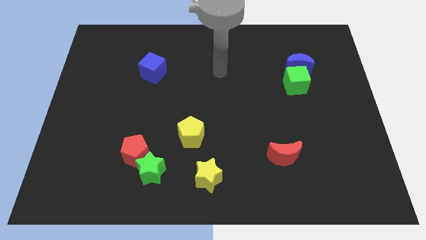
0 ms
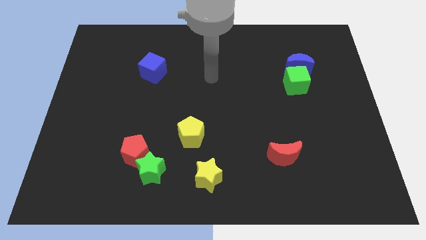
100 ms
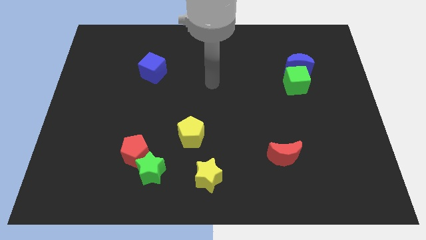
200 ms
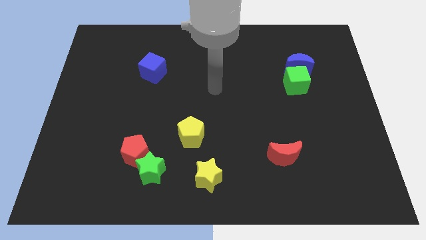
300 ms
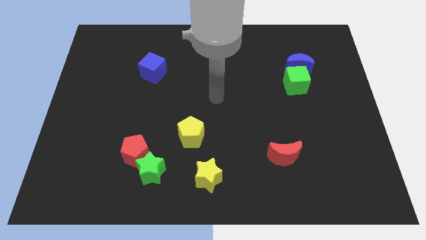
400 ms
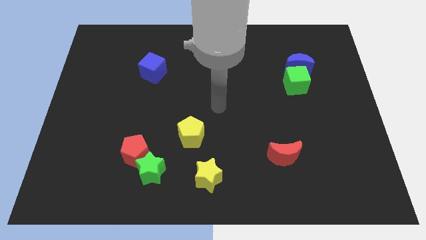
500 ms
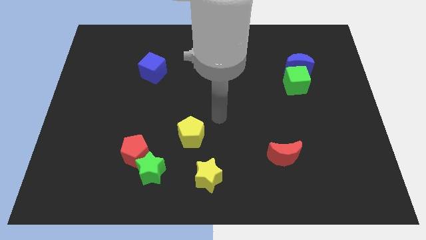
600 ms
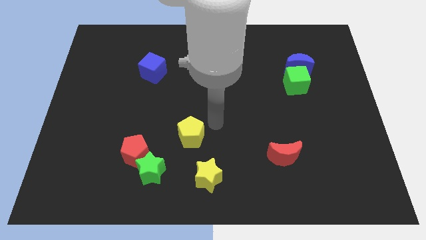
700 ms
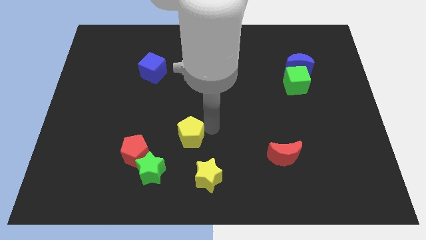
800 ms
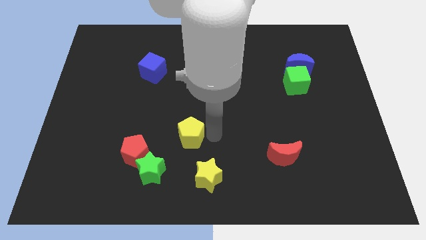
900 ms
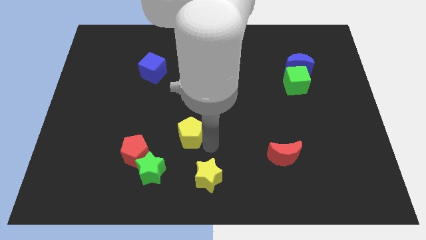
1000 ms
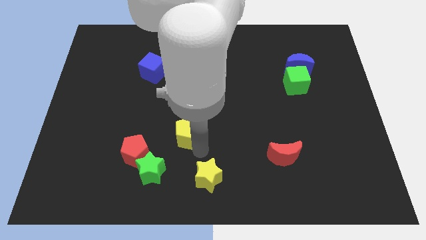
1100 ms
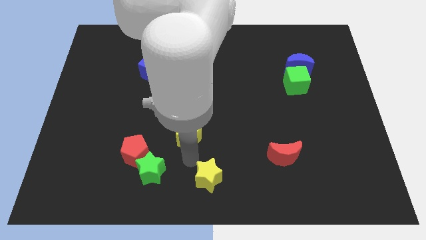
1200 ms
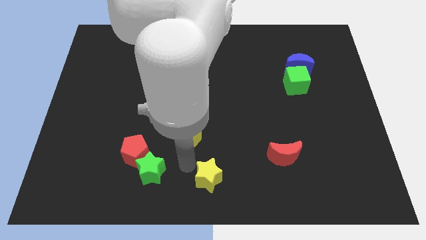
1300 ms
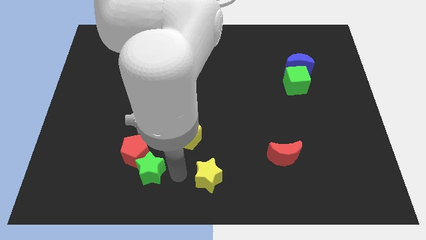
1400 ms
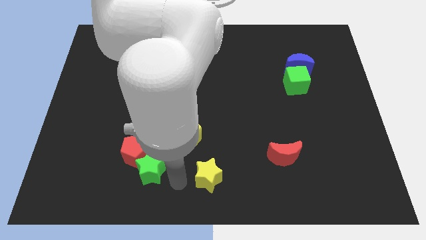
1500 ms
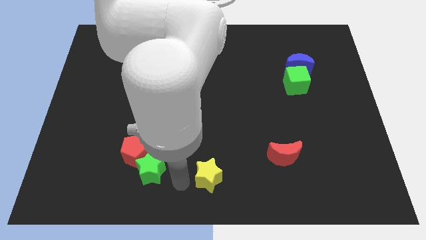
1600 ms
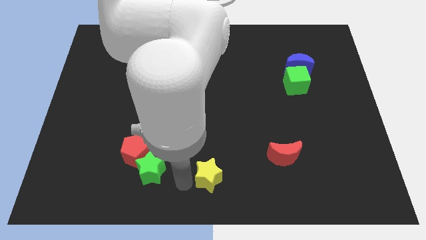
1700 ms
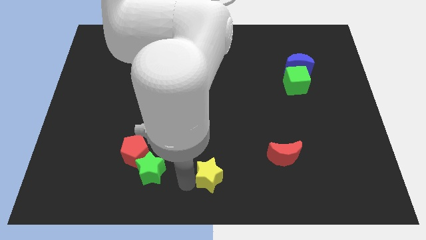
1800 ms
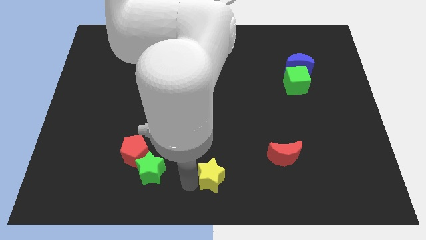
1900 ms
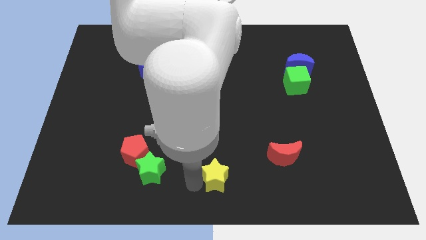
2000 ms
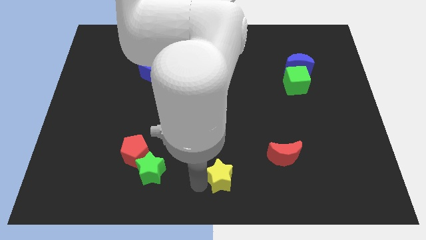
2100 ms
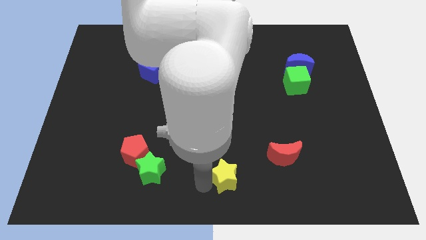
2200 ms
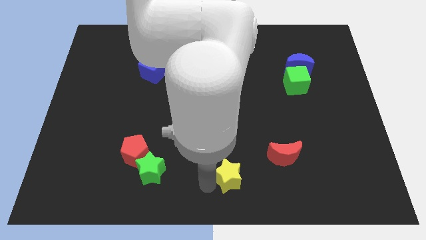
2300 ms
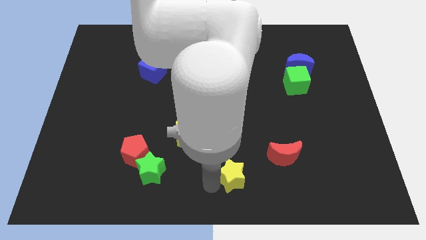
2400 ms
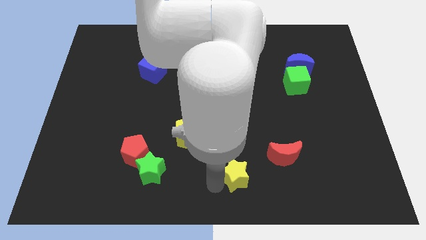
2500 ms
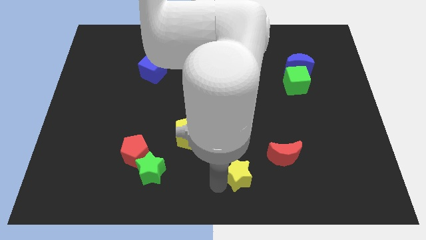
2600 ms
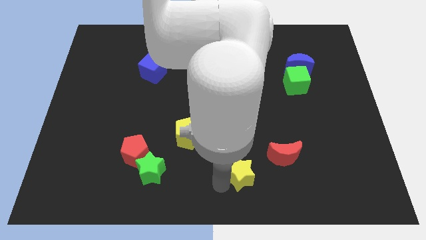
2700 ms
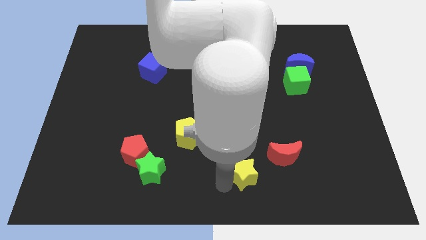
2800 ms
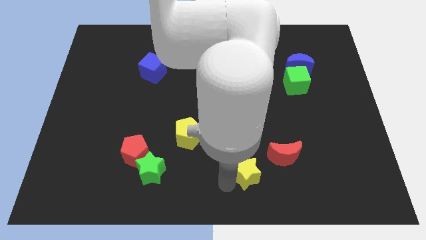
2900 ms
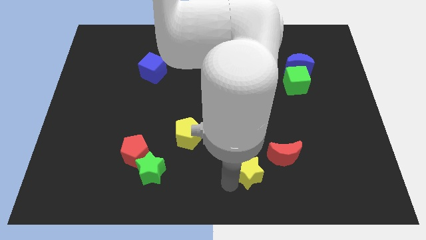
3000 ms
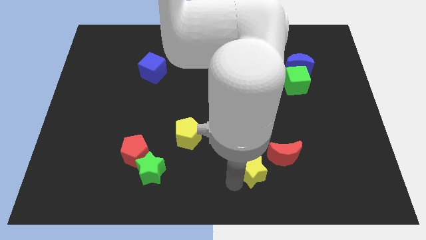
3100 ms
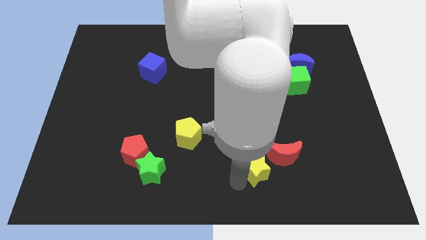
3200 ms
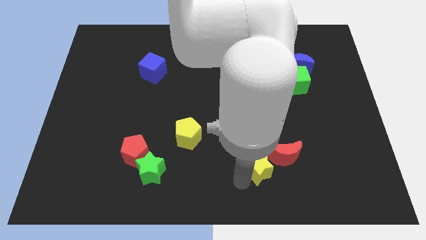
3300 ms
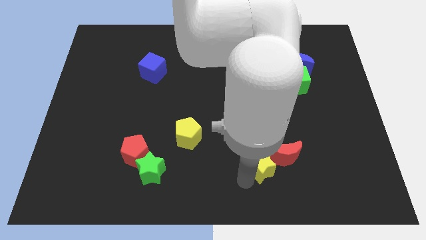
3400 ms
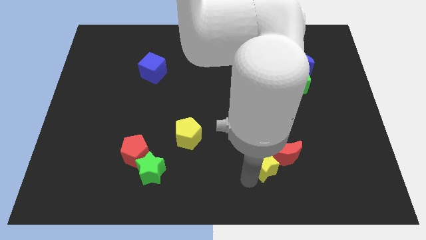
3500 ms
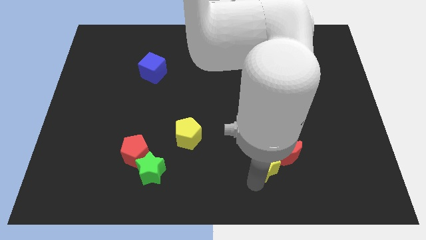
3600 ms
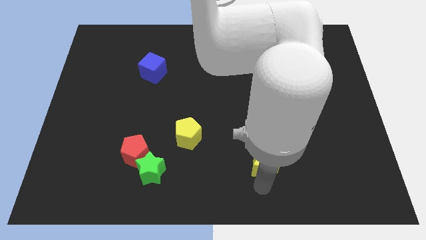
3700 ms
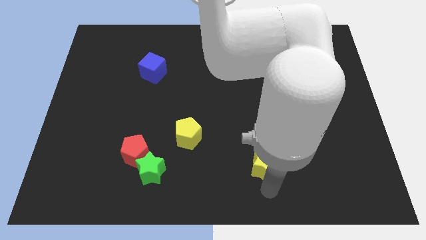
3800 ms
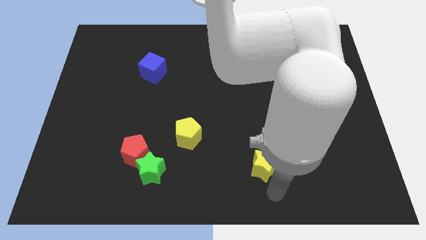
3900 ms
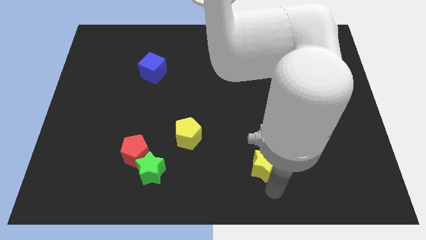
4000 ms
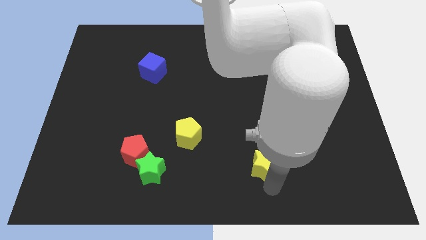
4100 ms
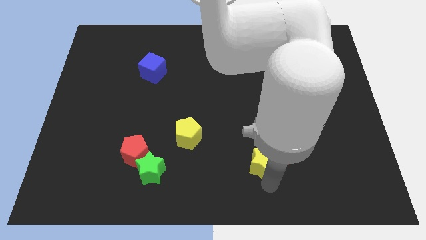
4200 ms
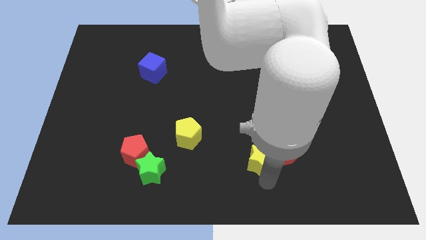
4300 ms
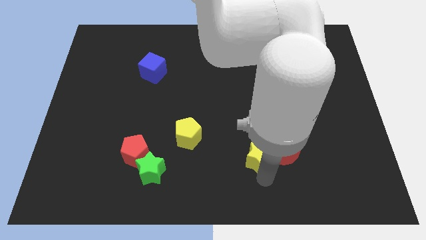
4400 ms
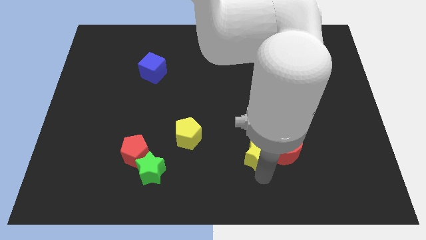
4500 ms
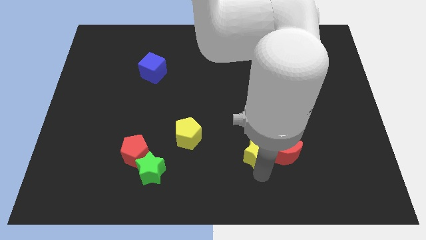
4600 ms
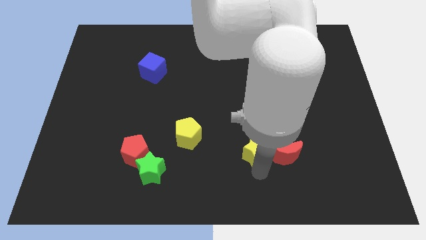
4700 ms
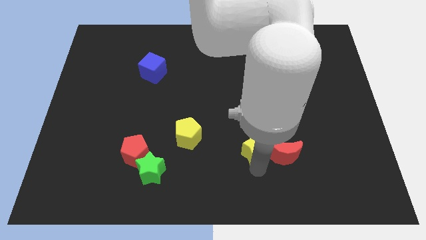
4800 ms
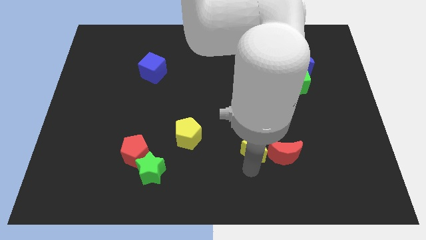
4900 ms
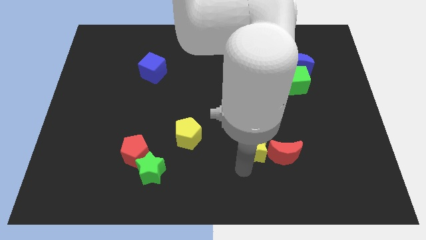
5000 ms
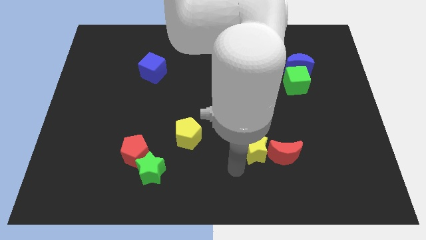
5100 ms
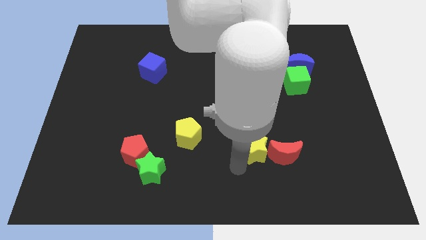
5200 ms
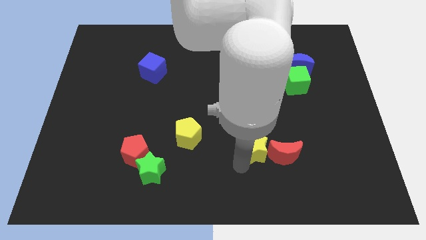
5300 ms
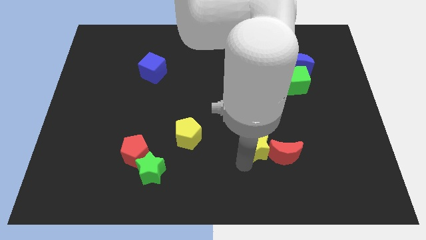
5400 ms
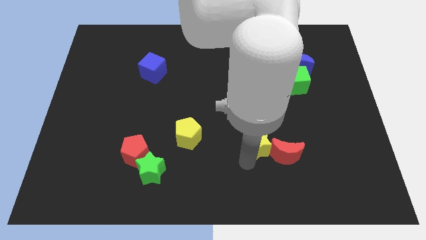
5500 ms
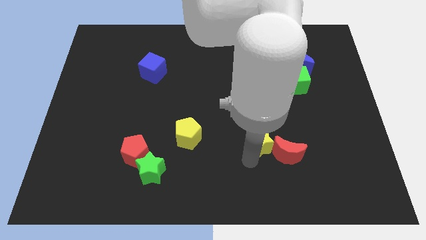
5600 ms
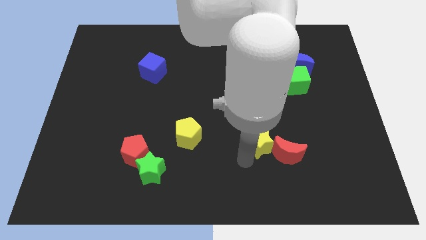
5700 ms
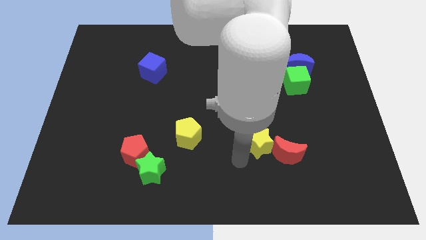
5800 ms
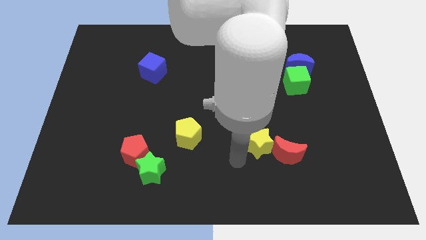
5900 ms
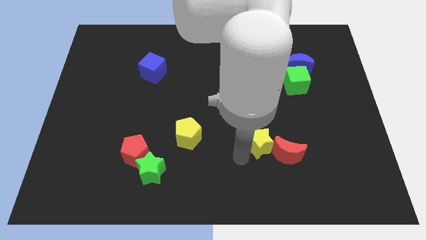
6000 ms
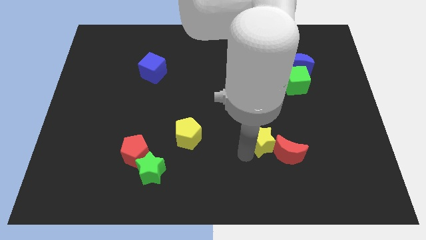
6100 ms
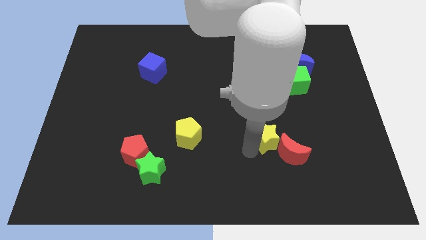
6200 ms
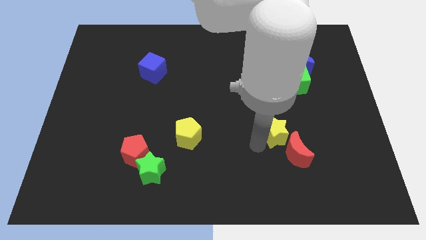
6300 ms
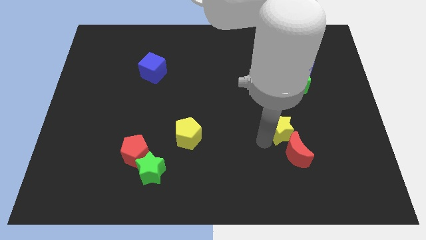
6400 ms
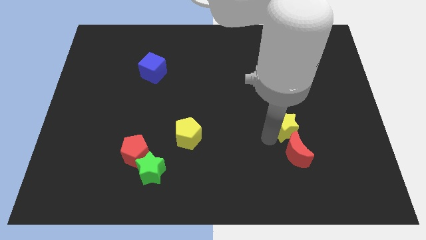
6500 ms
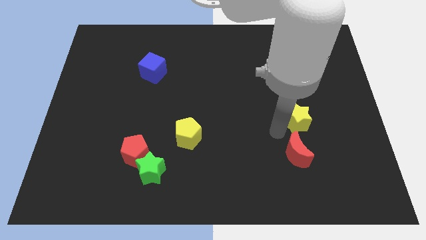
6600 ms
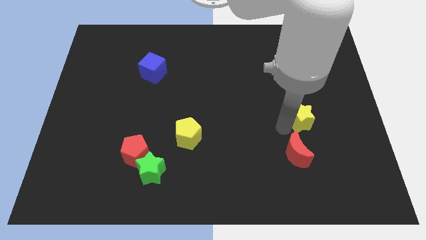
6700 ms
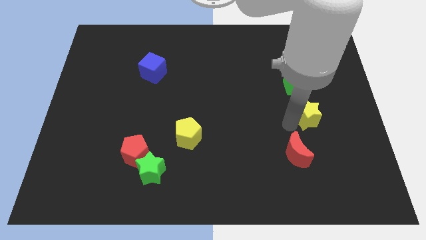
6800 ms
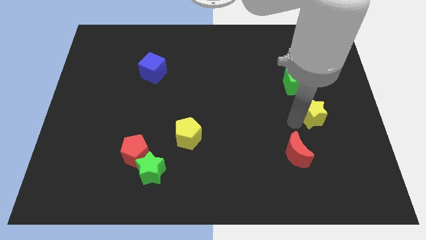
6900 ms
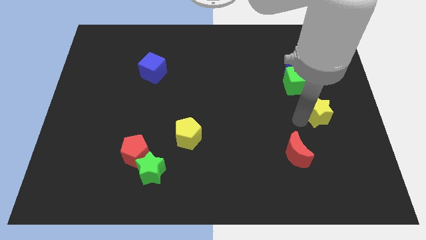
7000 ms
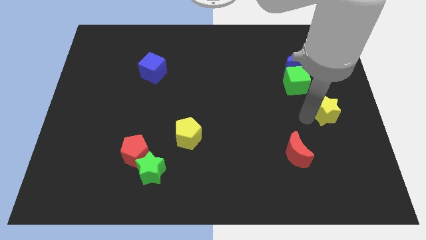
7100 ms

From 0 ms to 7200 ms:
put the yellow star to the right side
